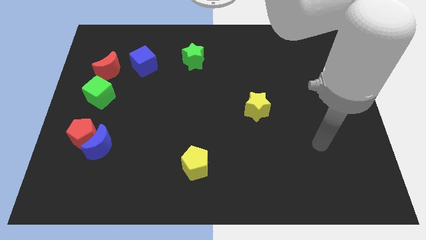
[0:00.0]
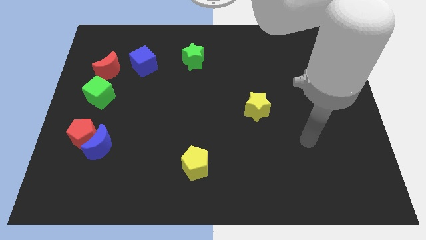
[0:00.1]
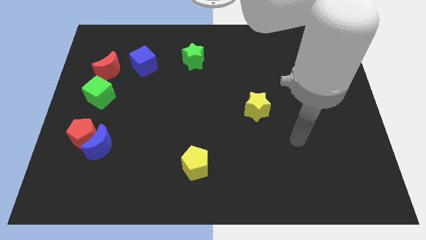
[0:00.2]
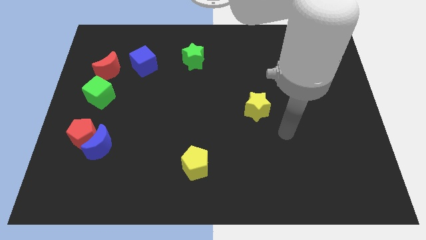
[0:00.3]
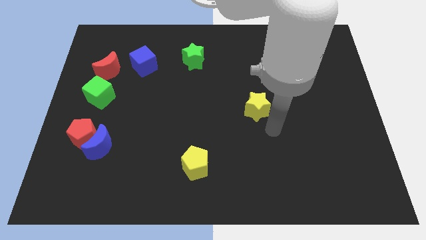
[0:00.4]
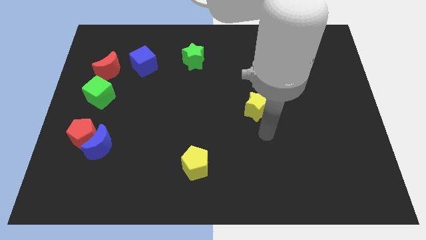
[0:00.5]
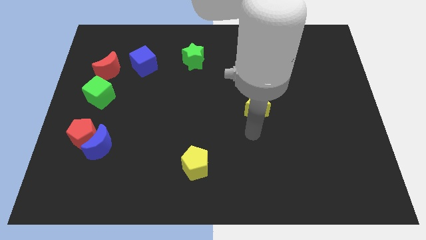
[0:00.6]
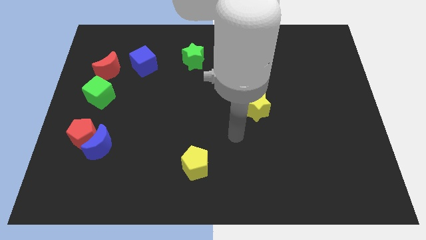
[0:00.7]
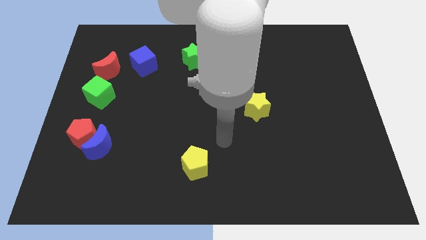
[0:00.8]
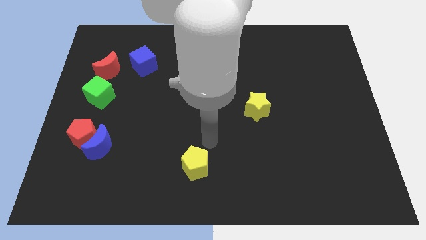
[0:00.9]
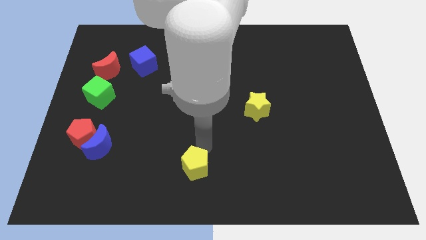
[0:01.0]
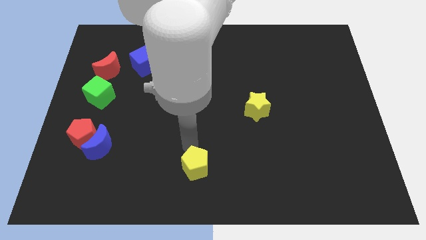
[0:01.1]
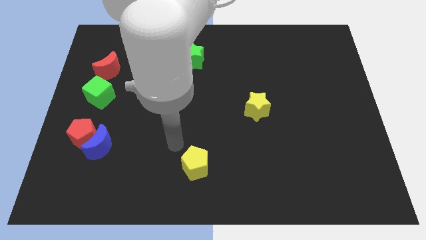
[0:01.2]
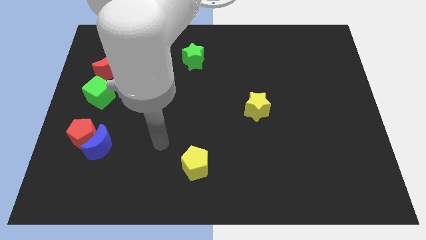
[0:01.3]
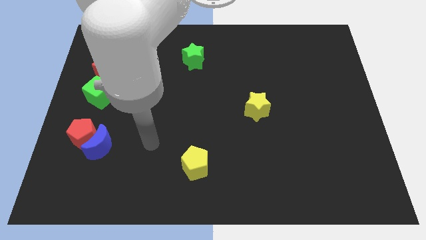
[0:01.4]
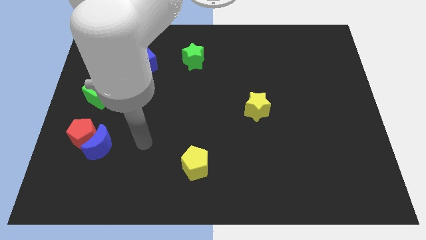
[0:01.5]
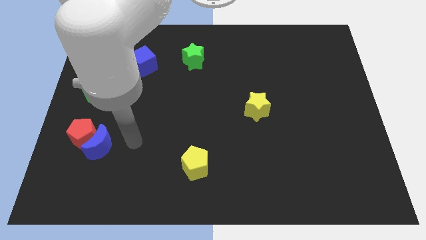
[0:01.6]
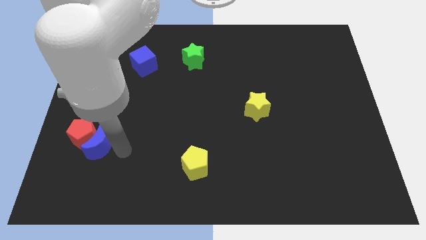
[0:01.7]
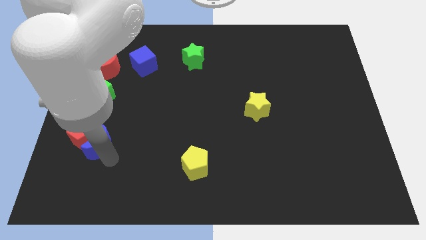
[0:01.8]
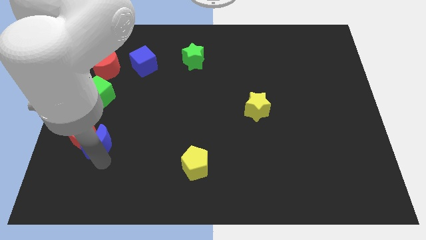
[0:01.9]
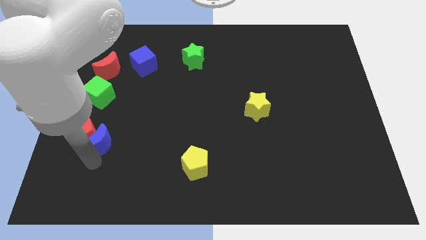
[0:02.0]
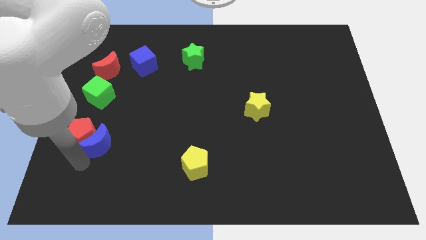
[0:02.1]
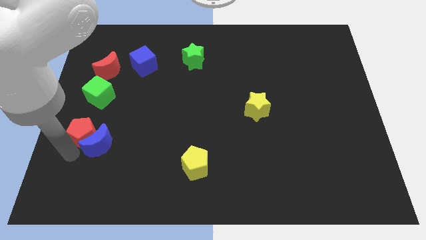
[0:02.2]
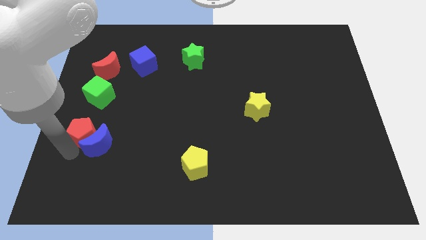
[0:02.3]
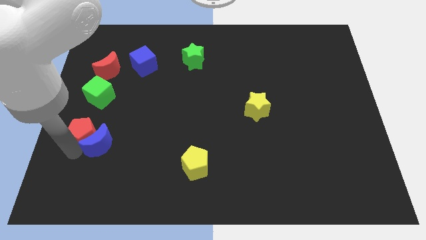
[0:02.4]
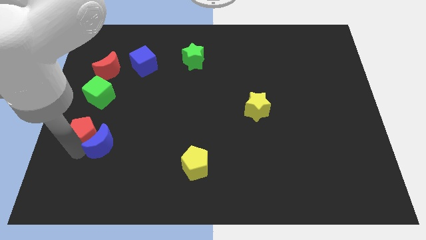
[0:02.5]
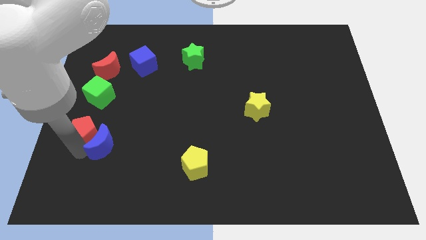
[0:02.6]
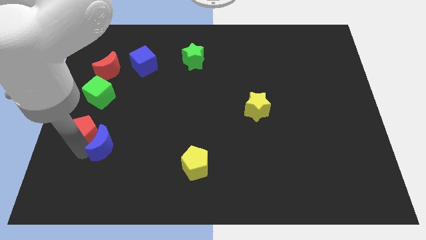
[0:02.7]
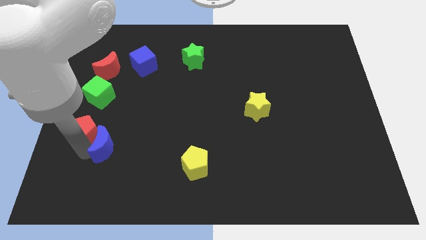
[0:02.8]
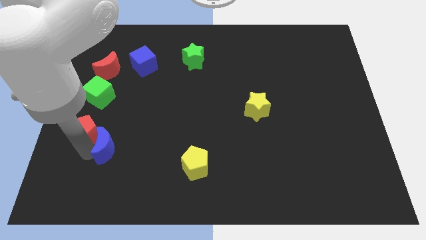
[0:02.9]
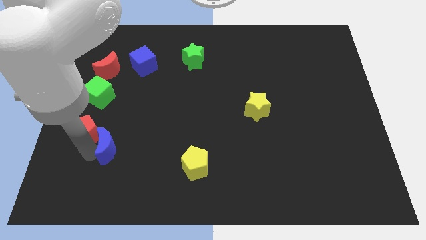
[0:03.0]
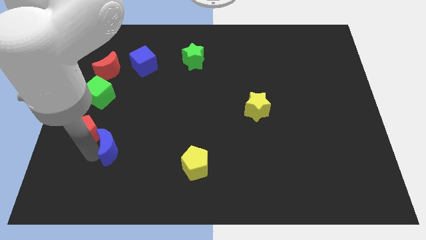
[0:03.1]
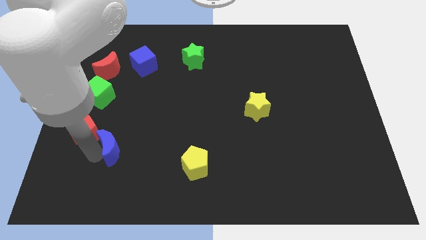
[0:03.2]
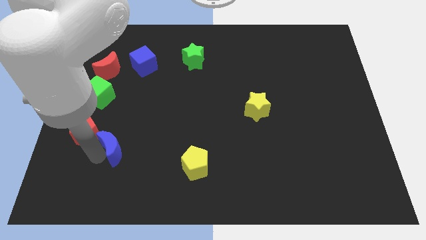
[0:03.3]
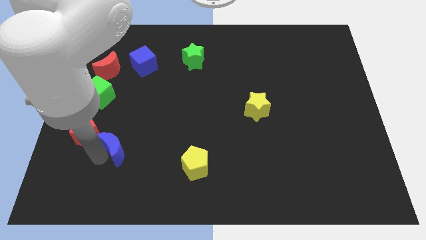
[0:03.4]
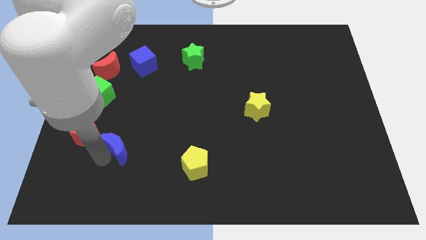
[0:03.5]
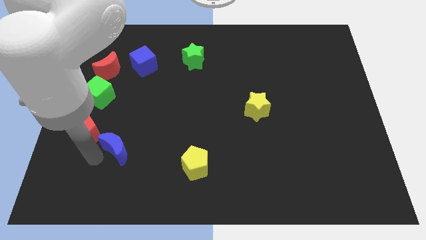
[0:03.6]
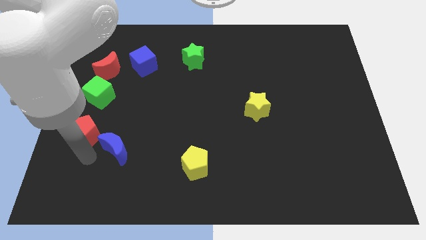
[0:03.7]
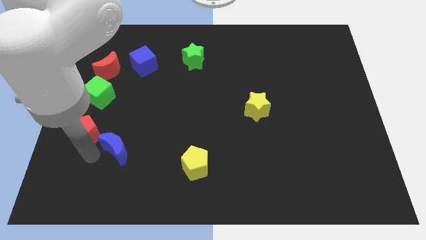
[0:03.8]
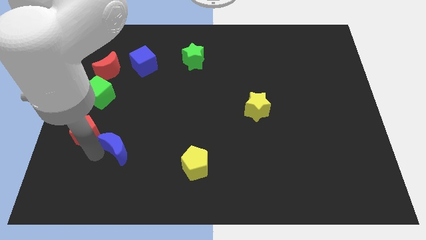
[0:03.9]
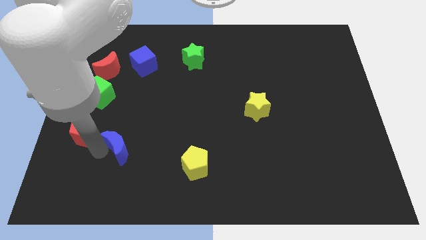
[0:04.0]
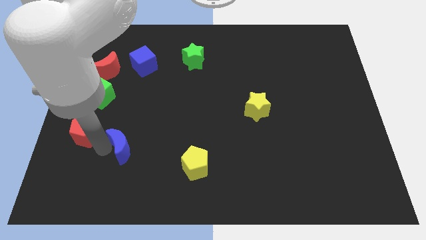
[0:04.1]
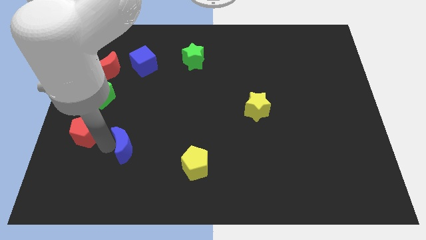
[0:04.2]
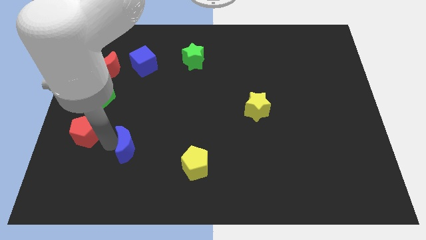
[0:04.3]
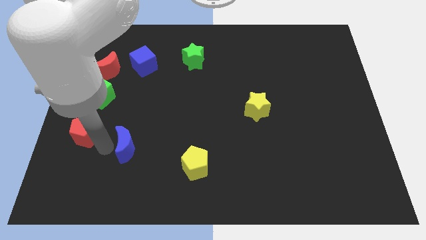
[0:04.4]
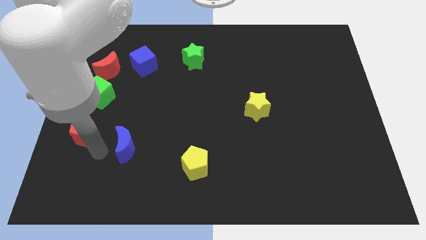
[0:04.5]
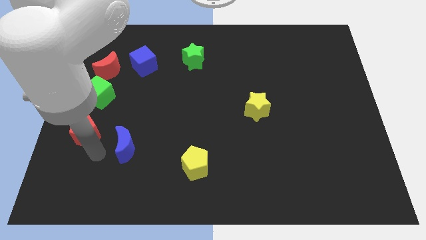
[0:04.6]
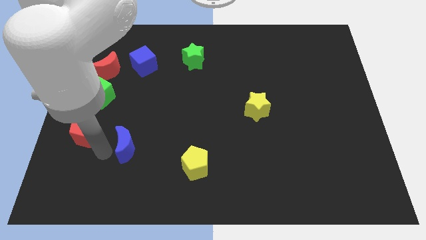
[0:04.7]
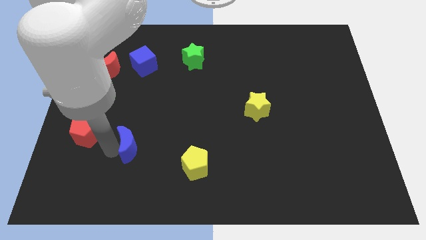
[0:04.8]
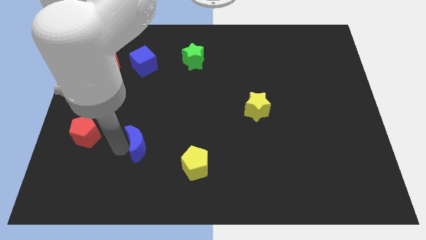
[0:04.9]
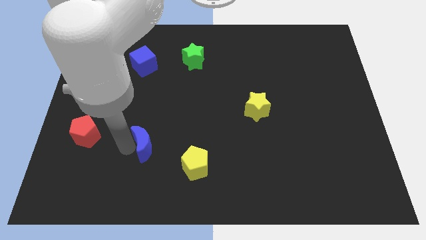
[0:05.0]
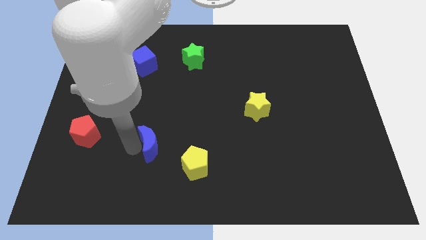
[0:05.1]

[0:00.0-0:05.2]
slide the blue moon to the top left of the yellow pentagon

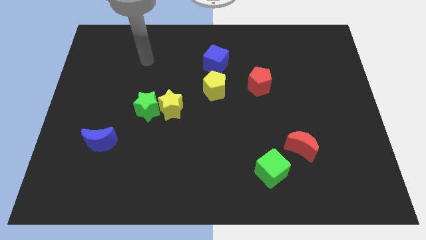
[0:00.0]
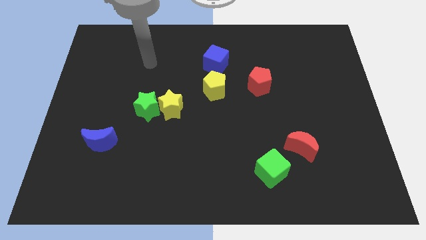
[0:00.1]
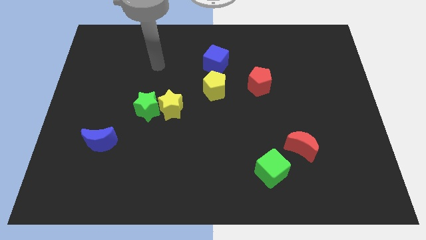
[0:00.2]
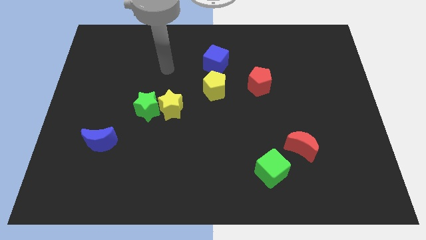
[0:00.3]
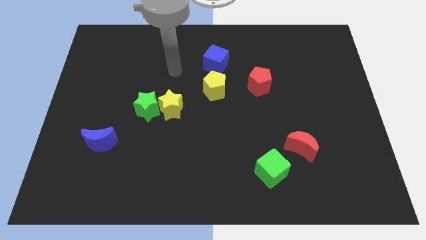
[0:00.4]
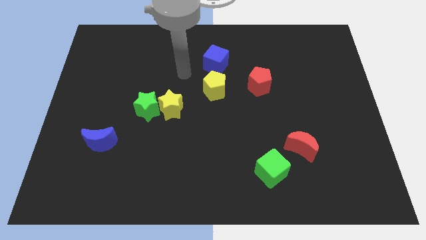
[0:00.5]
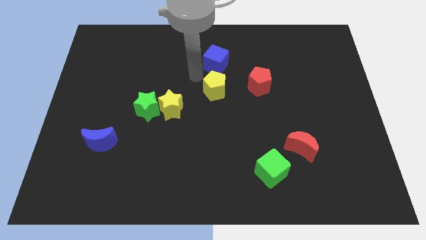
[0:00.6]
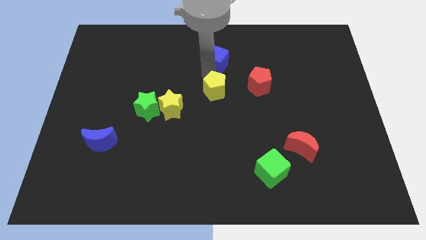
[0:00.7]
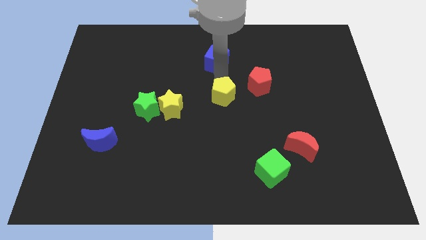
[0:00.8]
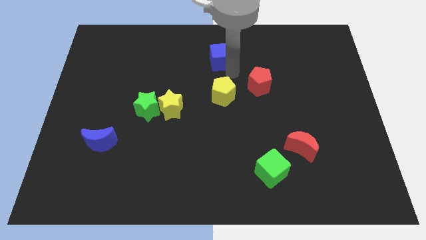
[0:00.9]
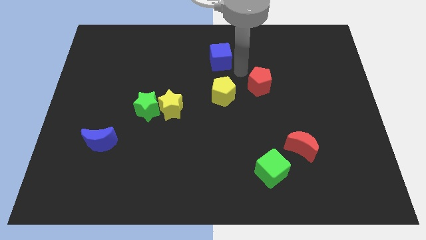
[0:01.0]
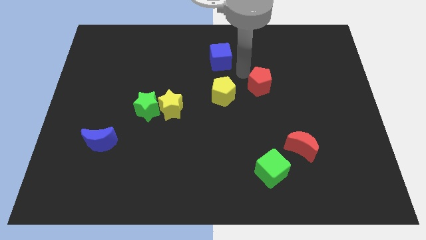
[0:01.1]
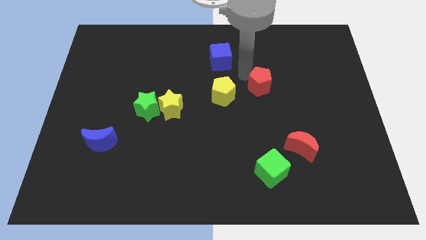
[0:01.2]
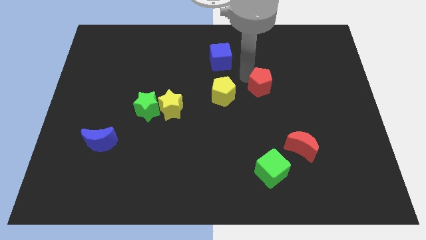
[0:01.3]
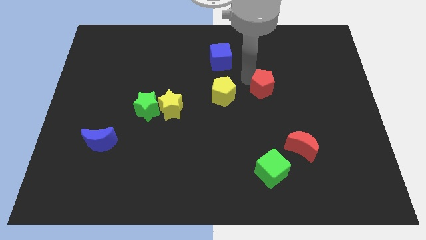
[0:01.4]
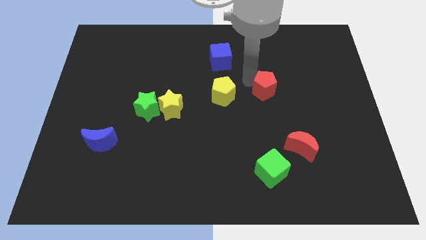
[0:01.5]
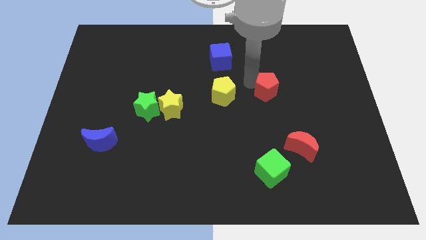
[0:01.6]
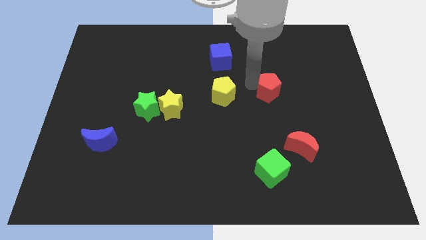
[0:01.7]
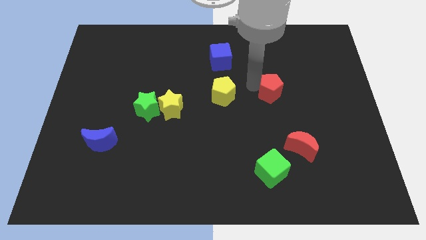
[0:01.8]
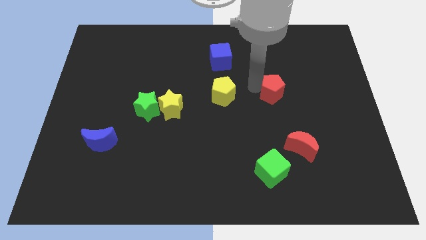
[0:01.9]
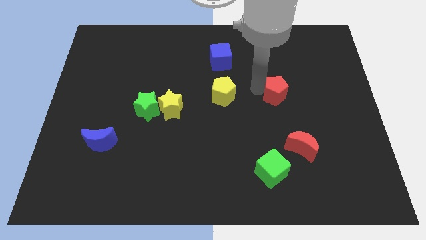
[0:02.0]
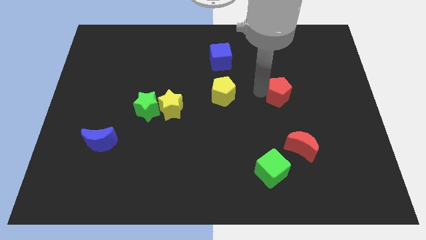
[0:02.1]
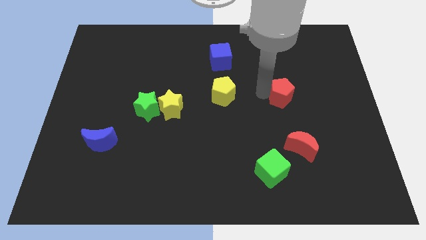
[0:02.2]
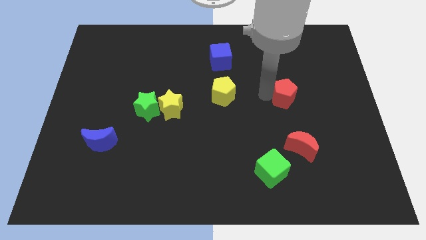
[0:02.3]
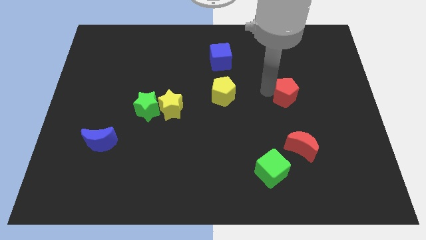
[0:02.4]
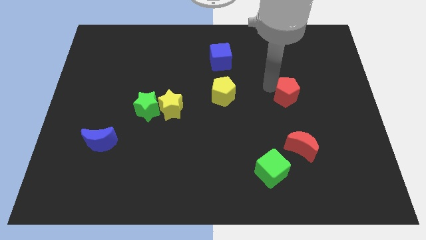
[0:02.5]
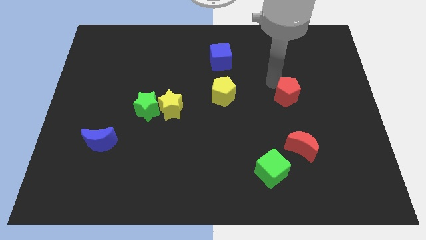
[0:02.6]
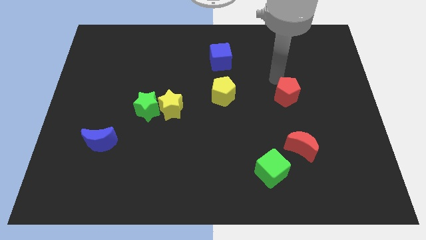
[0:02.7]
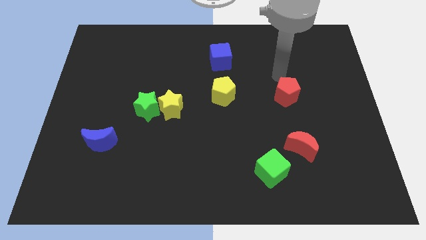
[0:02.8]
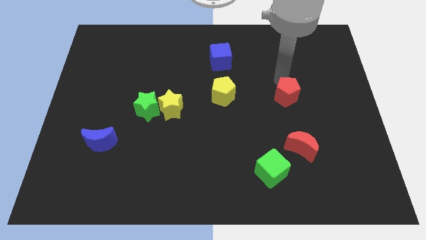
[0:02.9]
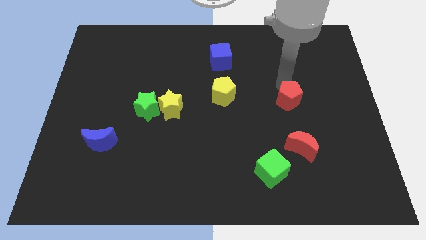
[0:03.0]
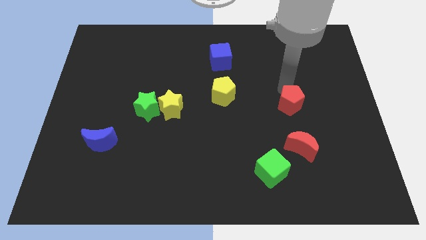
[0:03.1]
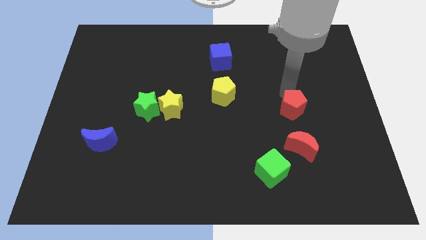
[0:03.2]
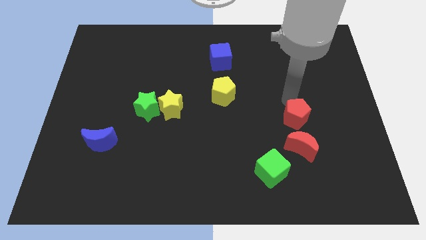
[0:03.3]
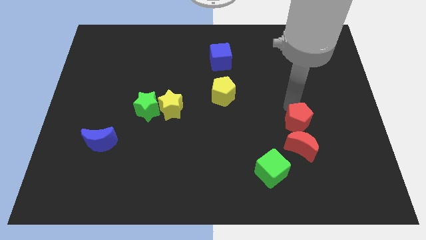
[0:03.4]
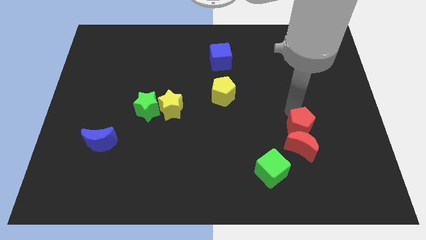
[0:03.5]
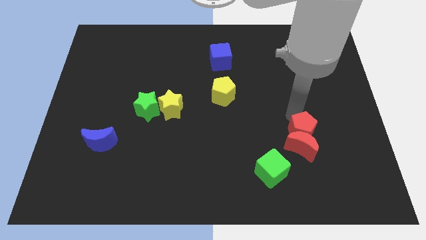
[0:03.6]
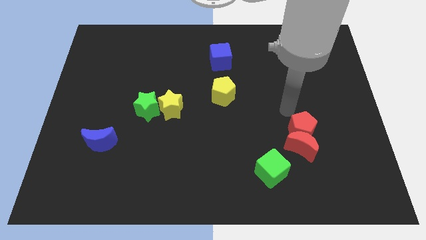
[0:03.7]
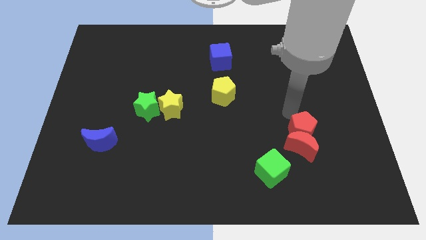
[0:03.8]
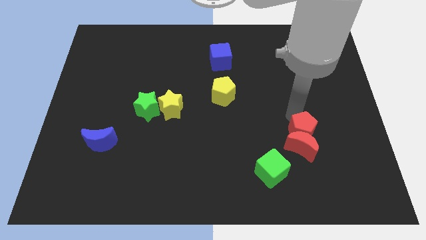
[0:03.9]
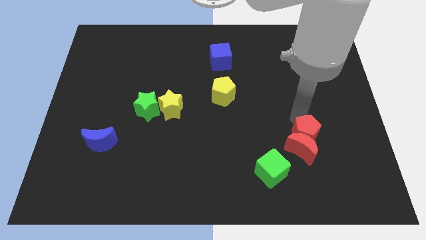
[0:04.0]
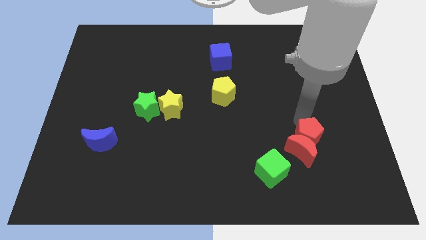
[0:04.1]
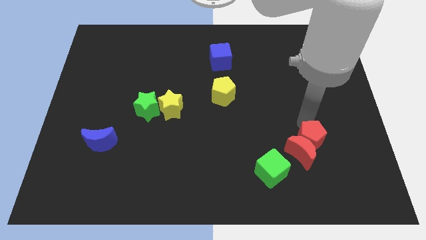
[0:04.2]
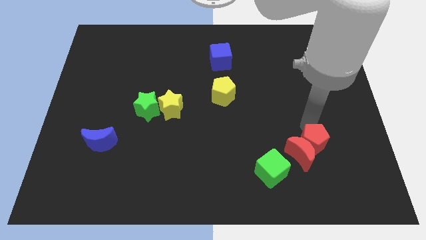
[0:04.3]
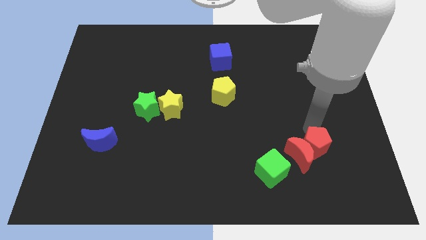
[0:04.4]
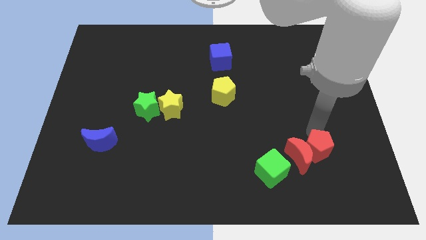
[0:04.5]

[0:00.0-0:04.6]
put the red pentagon to the bottom right side of the red moon
